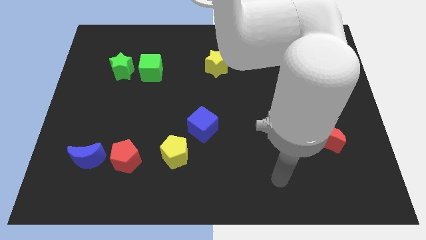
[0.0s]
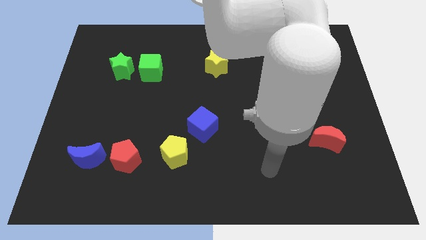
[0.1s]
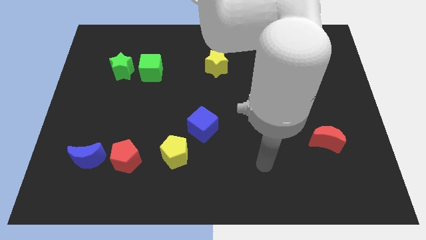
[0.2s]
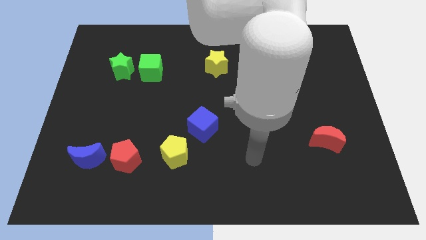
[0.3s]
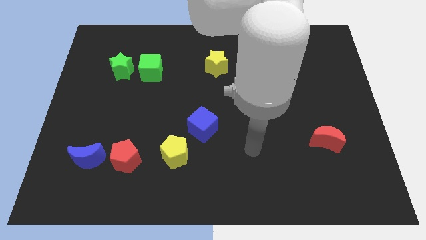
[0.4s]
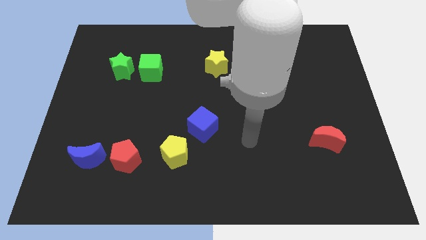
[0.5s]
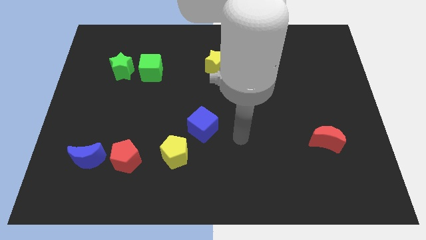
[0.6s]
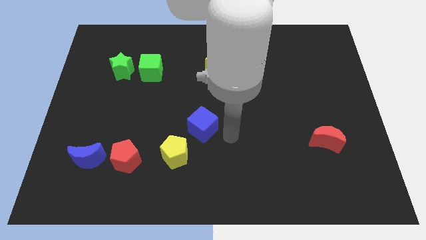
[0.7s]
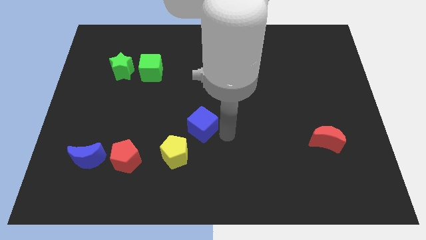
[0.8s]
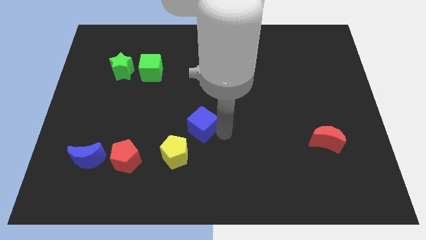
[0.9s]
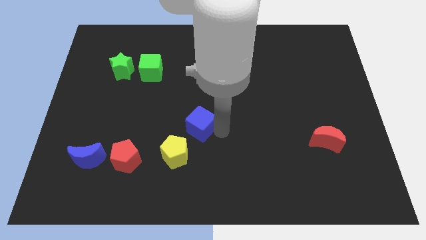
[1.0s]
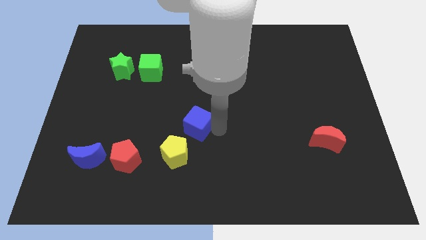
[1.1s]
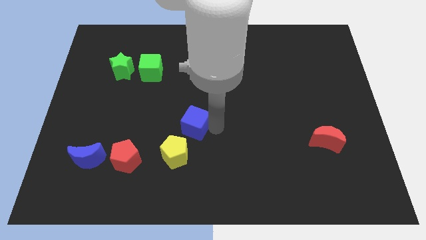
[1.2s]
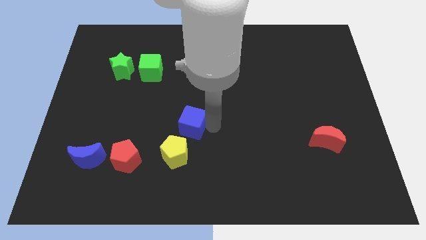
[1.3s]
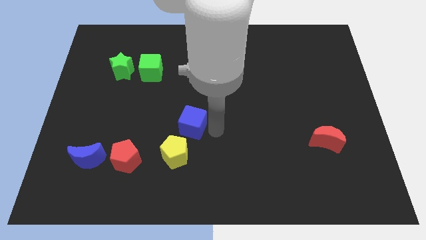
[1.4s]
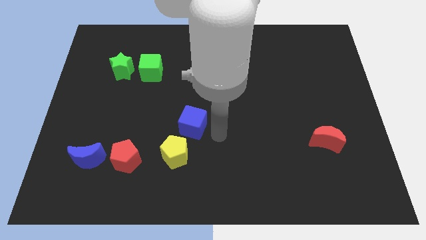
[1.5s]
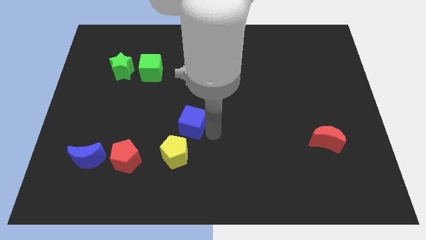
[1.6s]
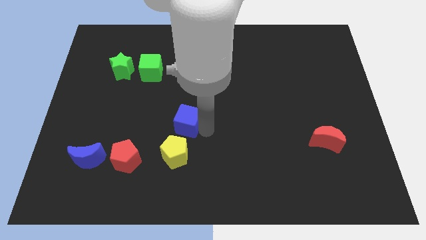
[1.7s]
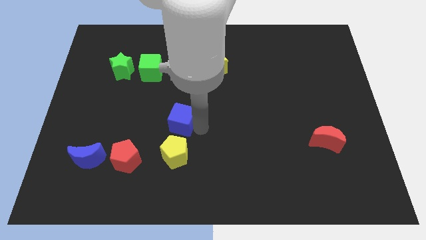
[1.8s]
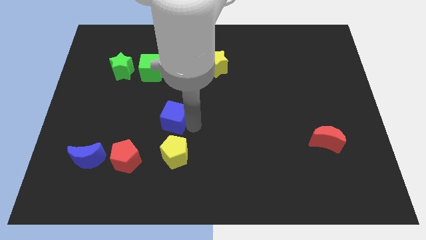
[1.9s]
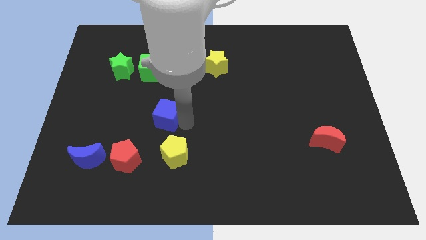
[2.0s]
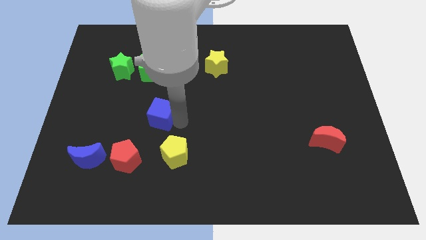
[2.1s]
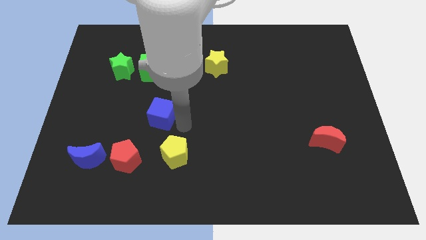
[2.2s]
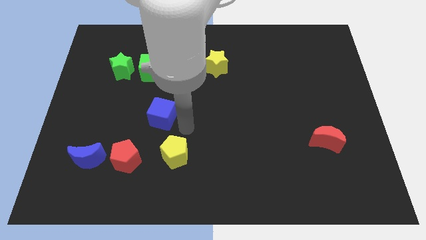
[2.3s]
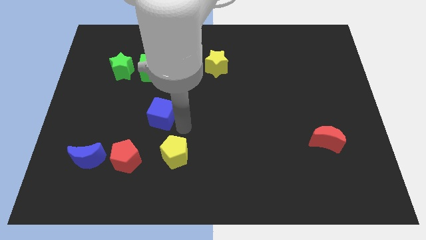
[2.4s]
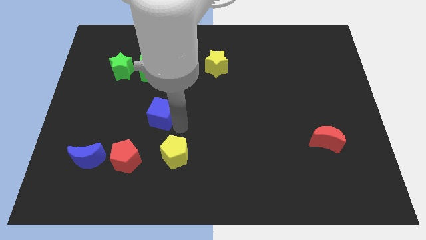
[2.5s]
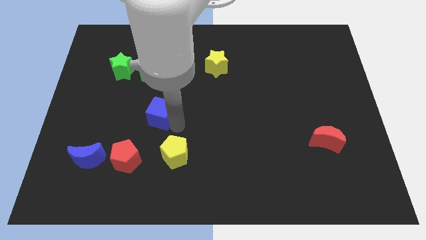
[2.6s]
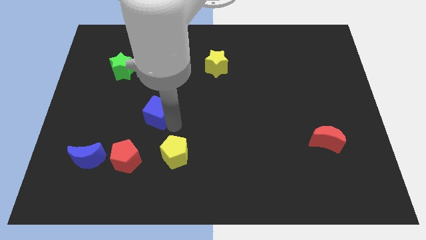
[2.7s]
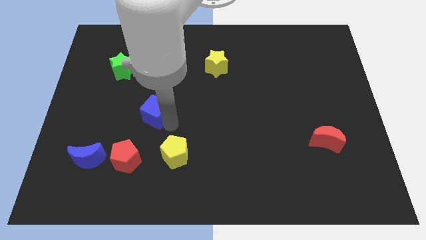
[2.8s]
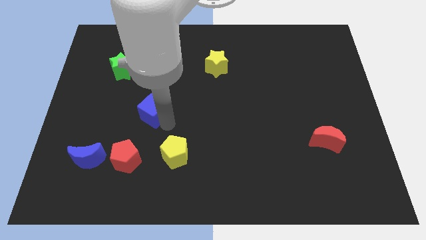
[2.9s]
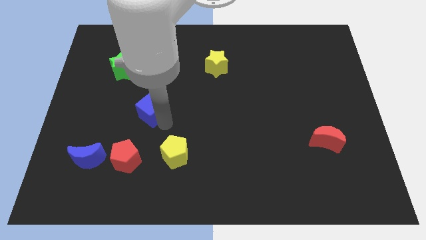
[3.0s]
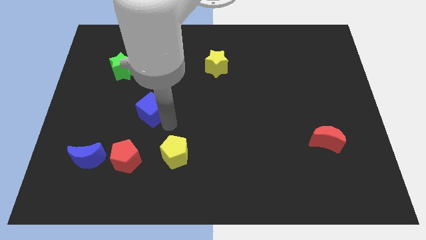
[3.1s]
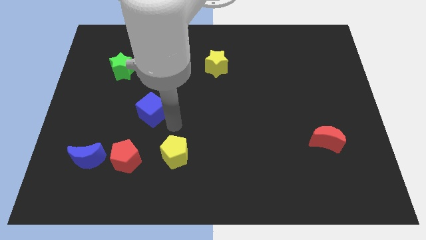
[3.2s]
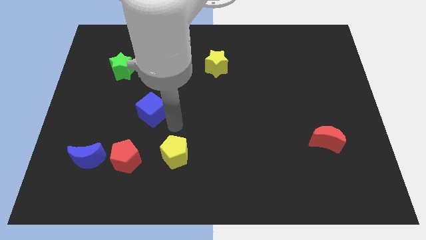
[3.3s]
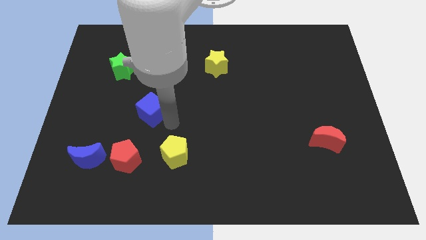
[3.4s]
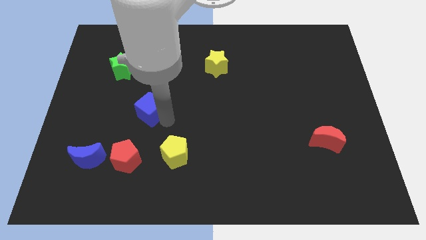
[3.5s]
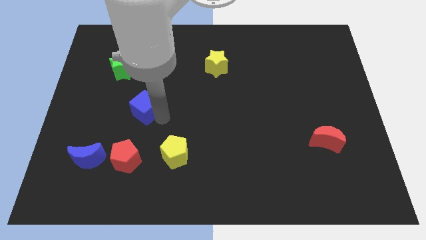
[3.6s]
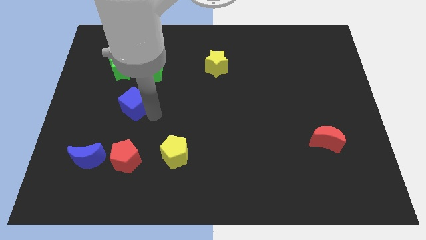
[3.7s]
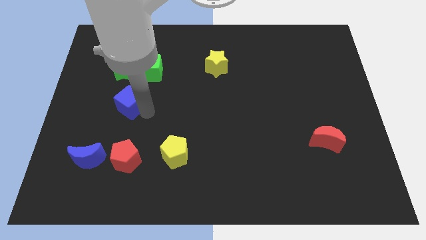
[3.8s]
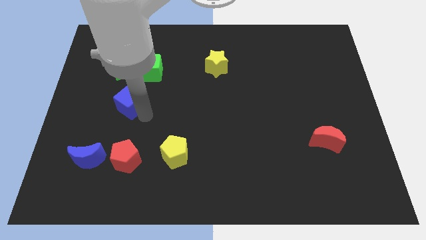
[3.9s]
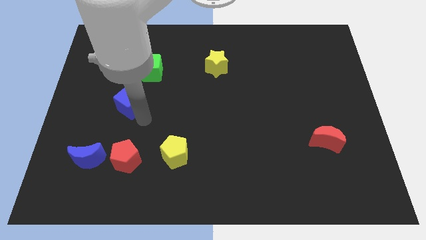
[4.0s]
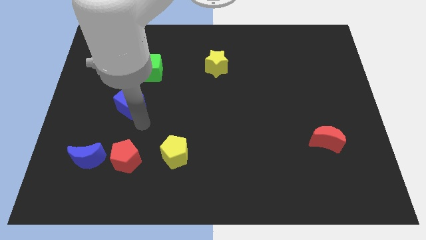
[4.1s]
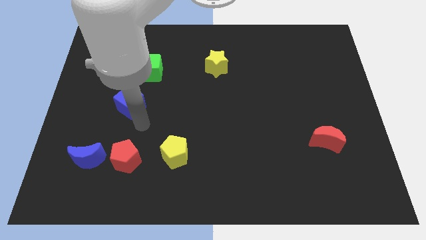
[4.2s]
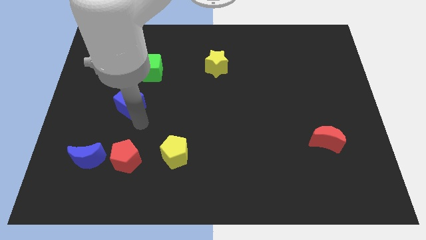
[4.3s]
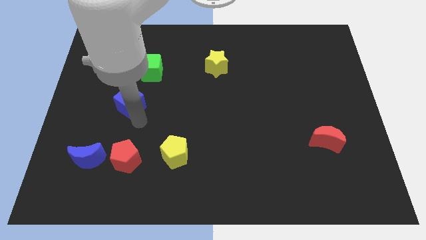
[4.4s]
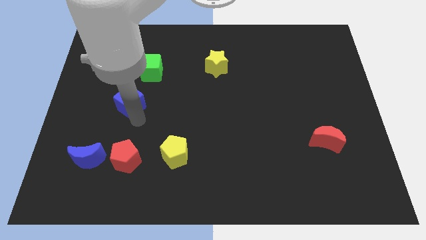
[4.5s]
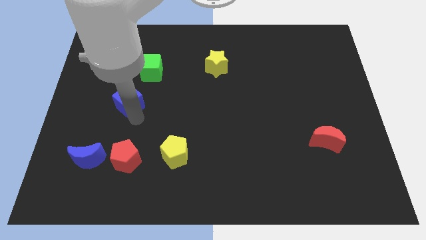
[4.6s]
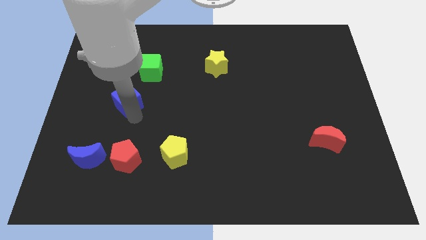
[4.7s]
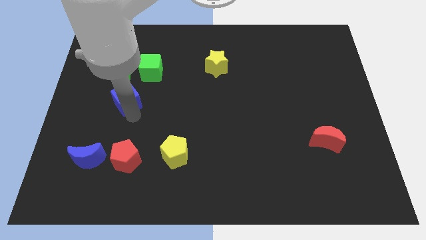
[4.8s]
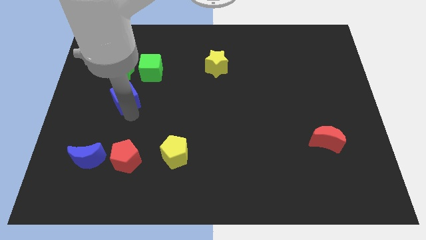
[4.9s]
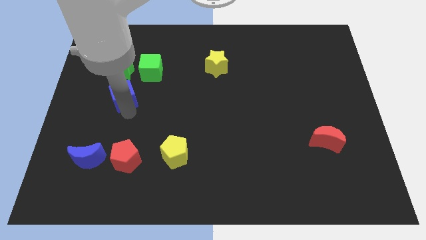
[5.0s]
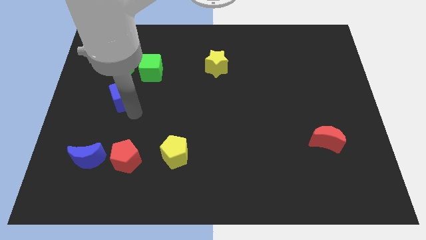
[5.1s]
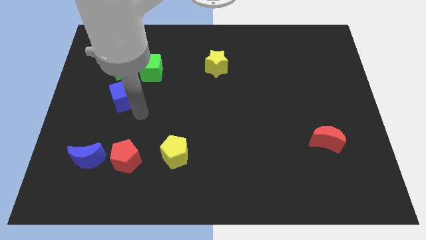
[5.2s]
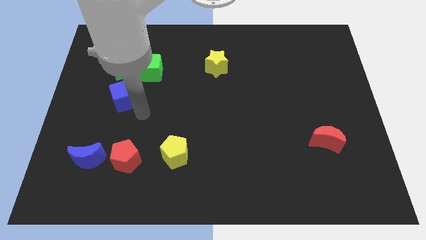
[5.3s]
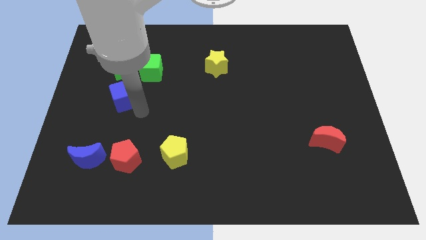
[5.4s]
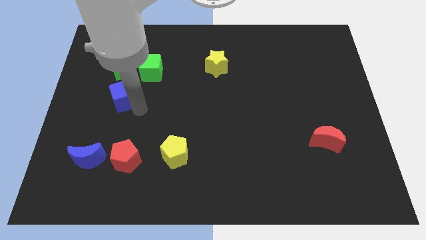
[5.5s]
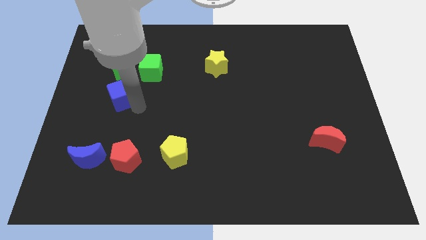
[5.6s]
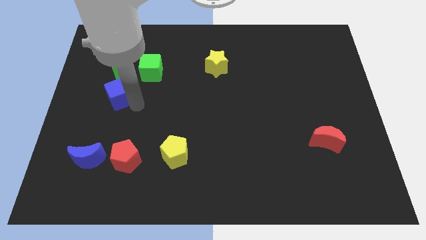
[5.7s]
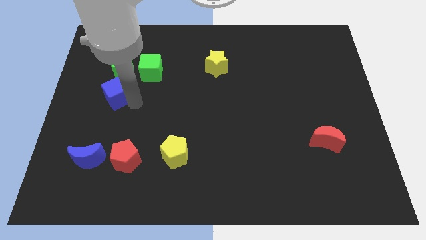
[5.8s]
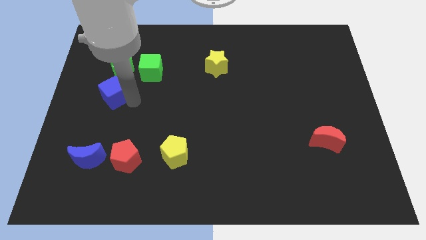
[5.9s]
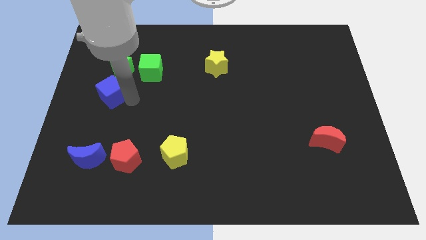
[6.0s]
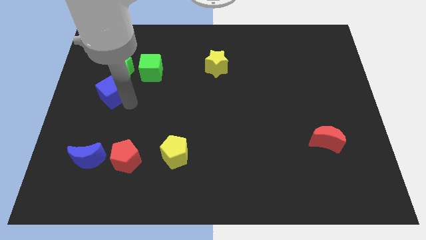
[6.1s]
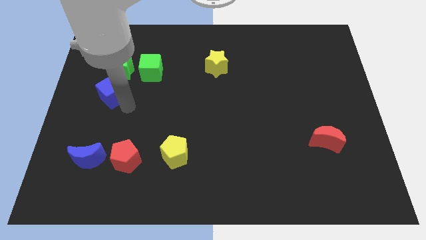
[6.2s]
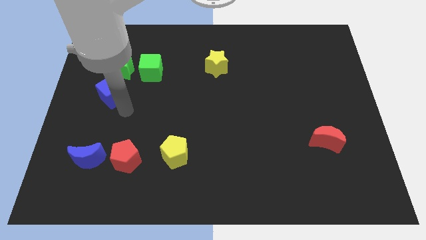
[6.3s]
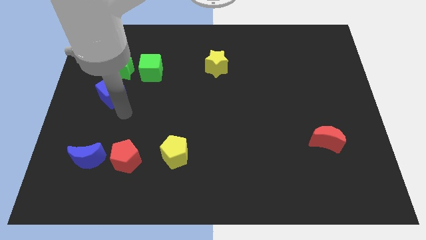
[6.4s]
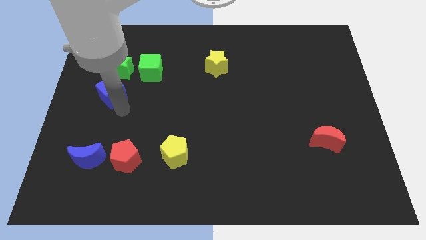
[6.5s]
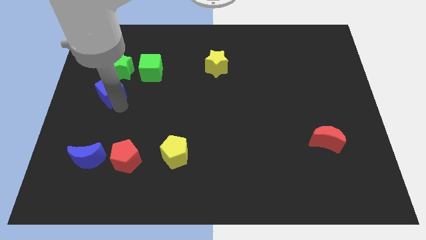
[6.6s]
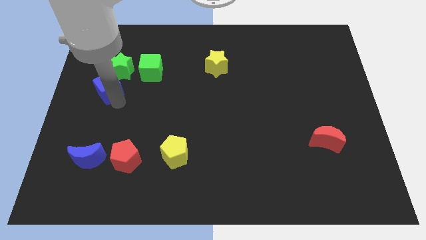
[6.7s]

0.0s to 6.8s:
slide the blue cube diagonally up and to the left

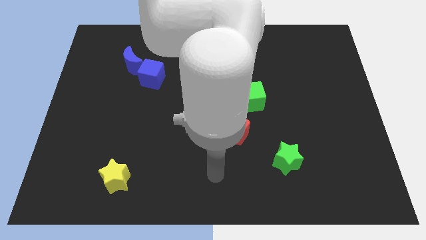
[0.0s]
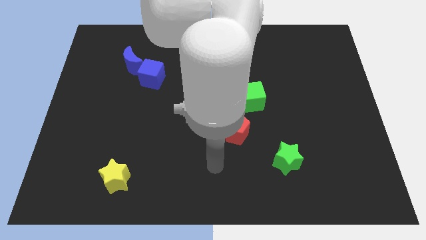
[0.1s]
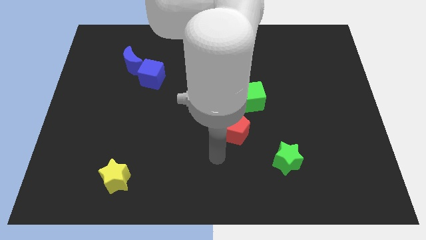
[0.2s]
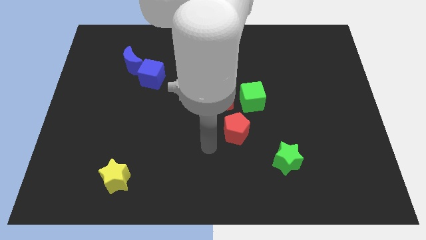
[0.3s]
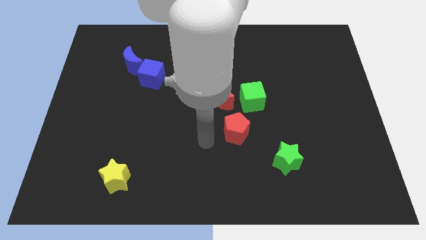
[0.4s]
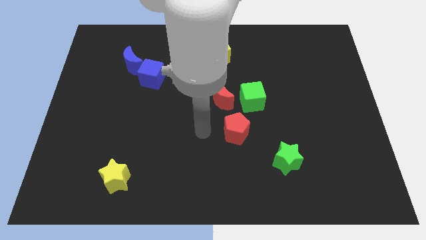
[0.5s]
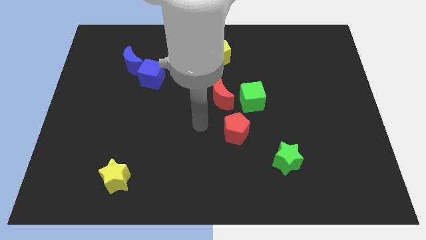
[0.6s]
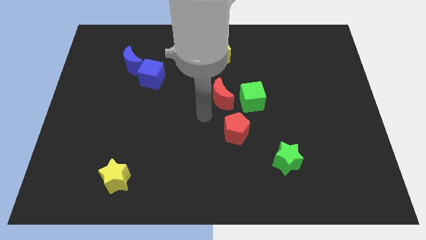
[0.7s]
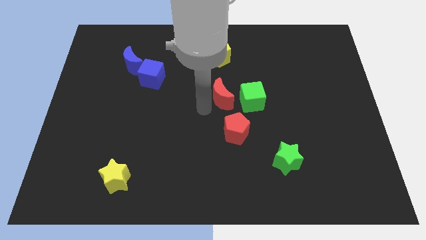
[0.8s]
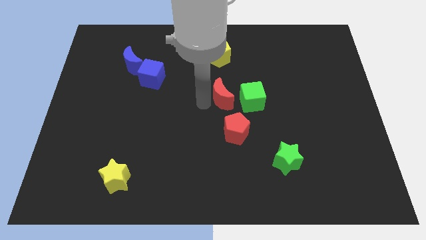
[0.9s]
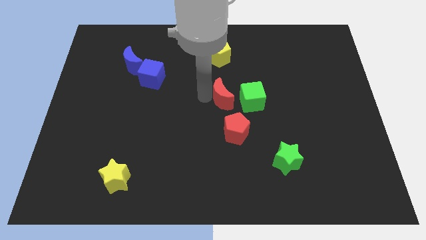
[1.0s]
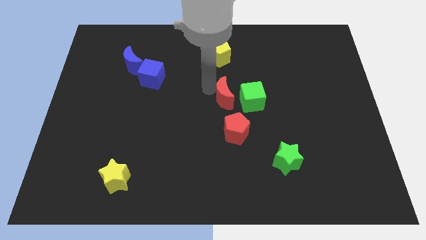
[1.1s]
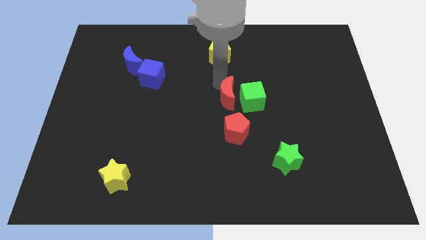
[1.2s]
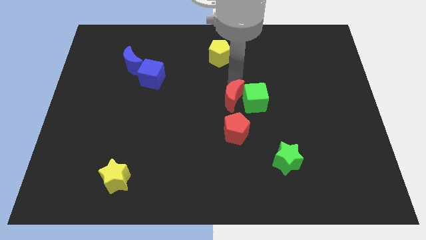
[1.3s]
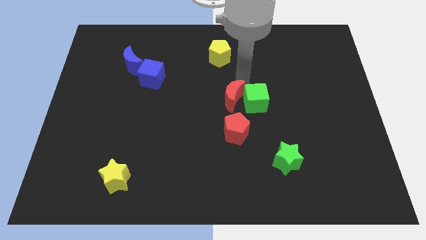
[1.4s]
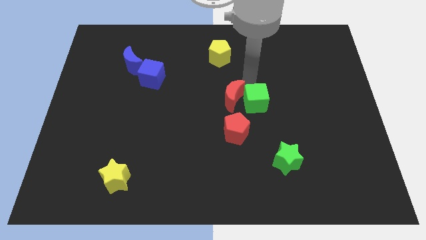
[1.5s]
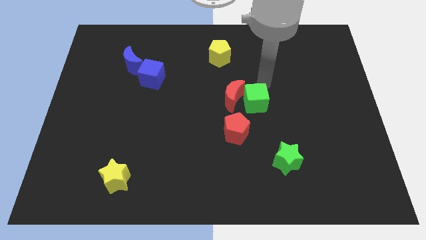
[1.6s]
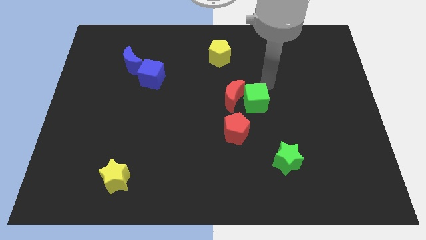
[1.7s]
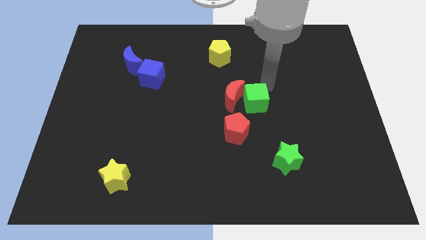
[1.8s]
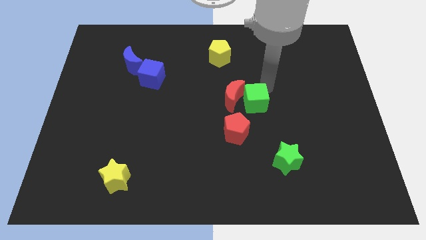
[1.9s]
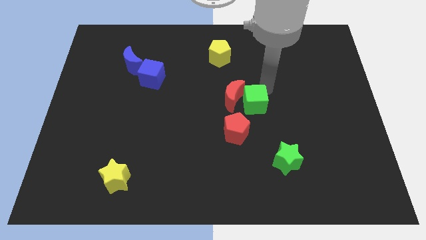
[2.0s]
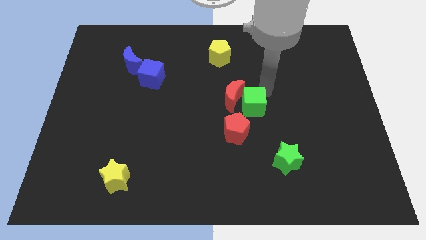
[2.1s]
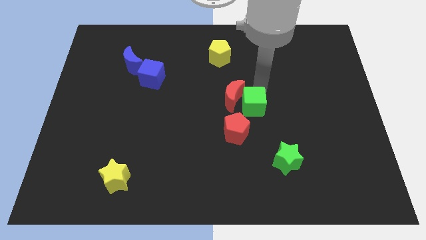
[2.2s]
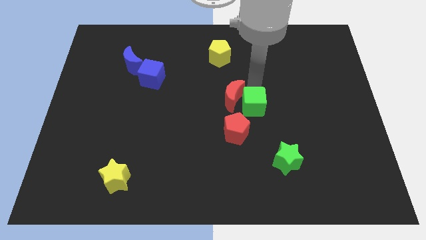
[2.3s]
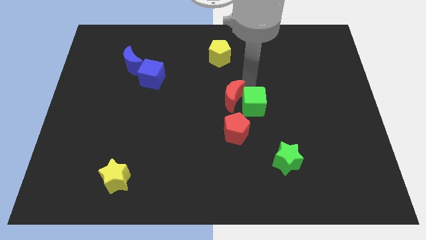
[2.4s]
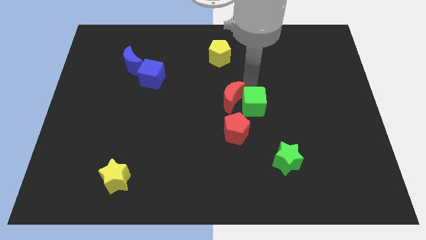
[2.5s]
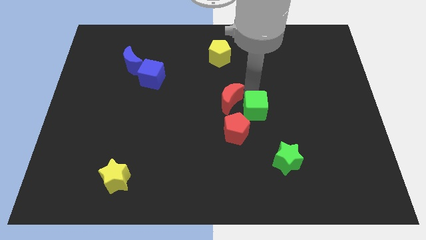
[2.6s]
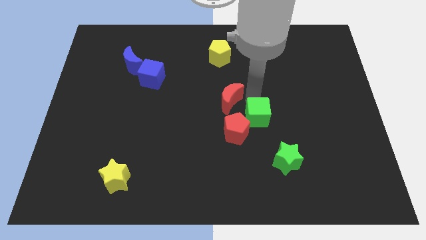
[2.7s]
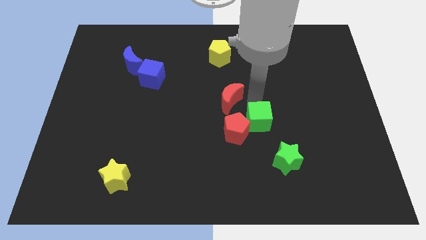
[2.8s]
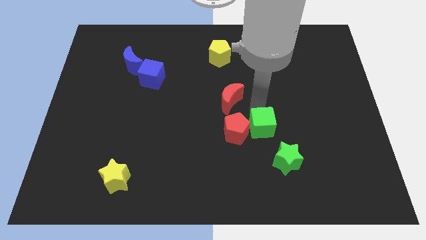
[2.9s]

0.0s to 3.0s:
move the green cube down a bit
